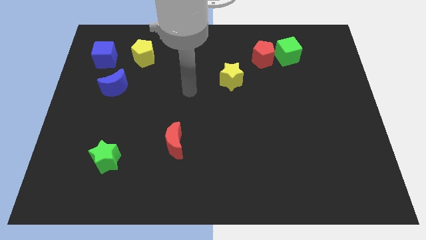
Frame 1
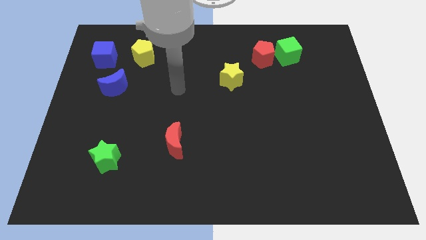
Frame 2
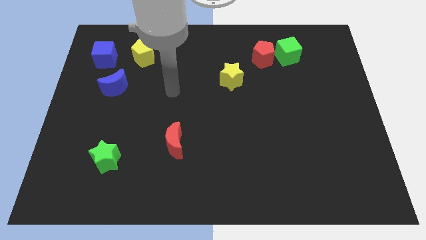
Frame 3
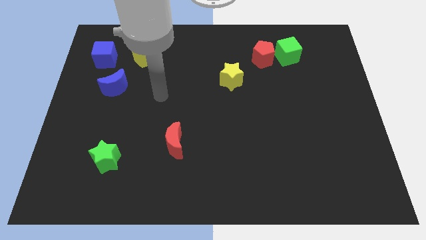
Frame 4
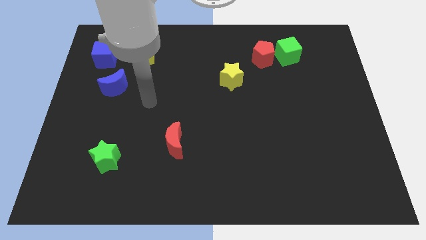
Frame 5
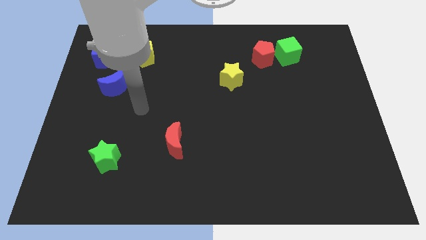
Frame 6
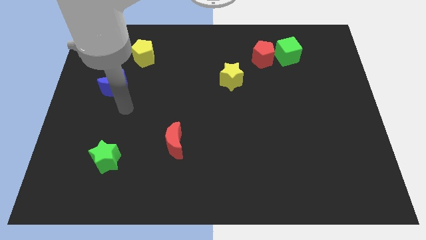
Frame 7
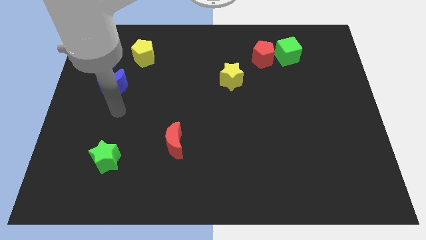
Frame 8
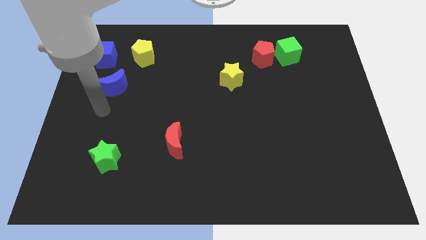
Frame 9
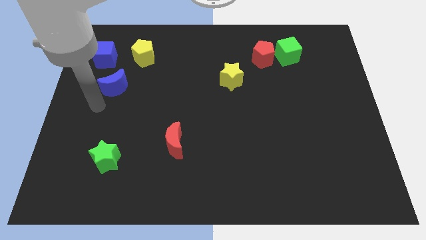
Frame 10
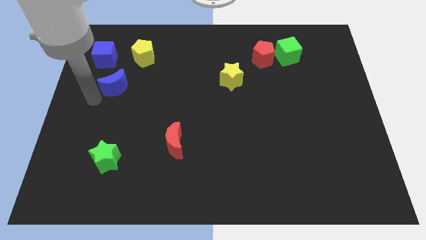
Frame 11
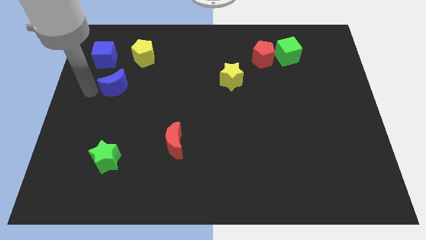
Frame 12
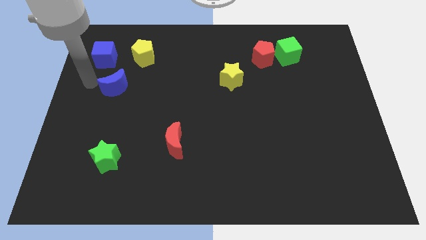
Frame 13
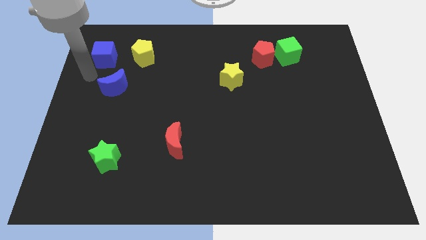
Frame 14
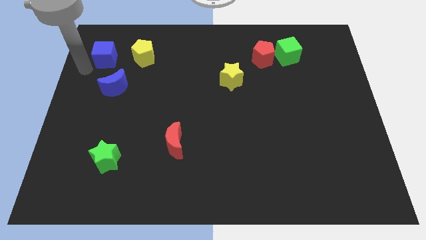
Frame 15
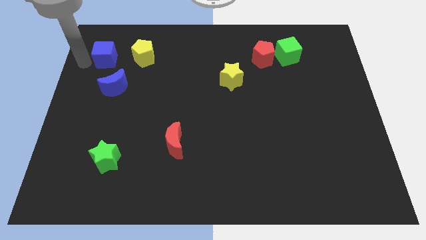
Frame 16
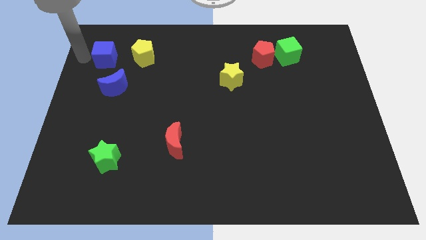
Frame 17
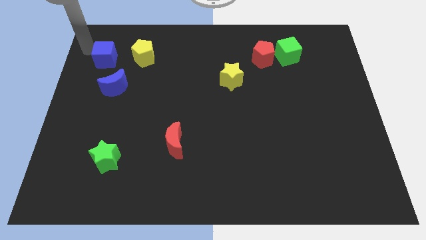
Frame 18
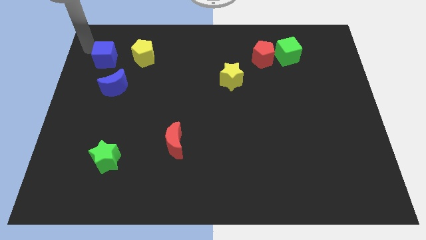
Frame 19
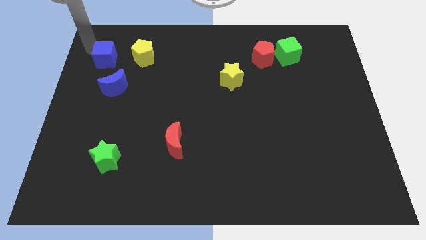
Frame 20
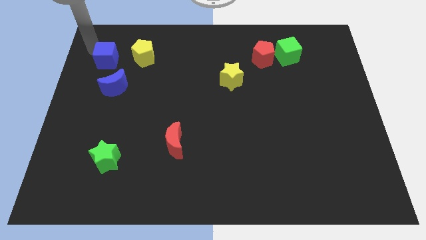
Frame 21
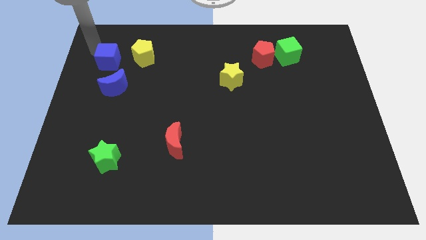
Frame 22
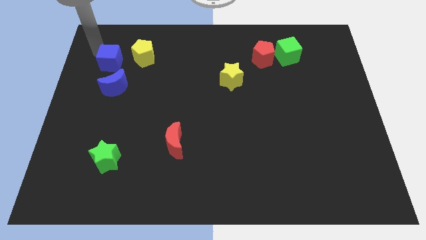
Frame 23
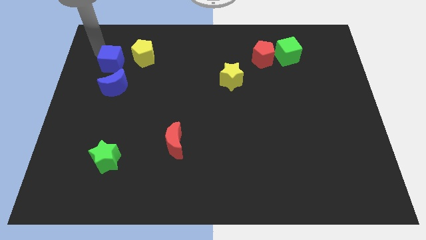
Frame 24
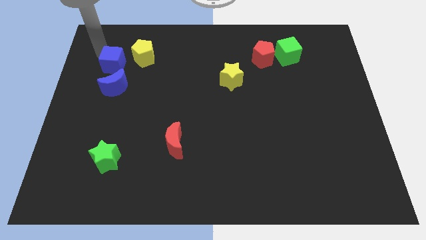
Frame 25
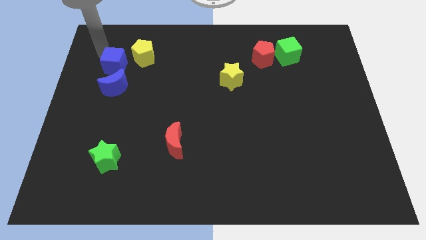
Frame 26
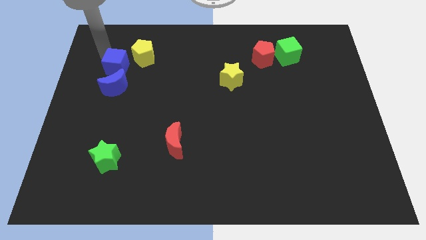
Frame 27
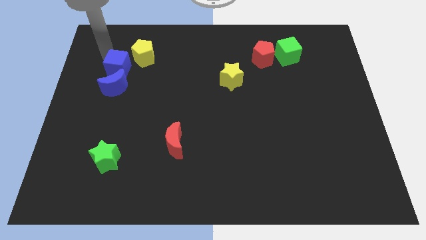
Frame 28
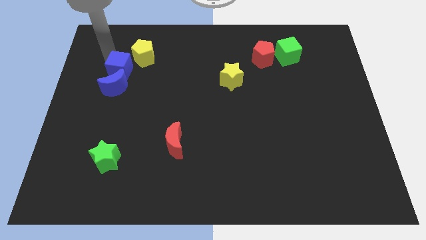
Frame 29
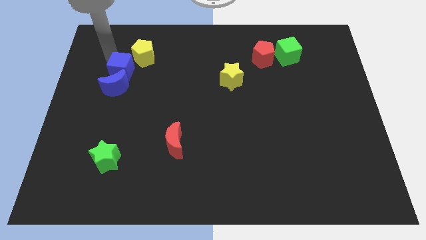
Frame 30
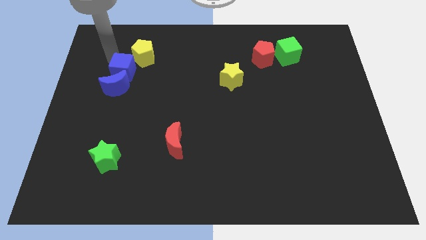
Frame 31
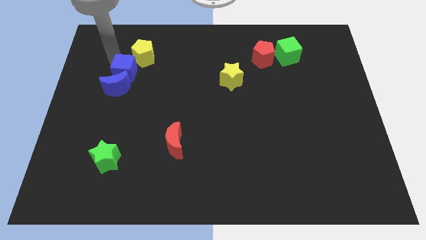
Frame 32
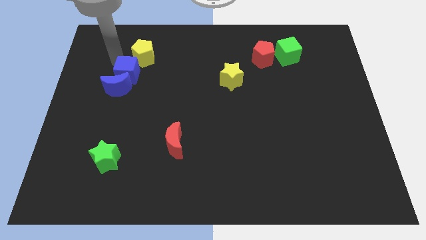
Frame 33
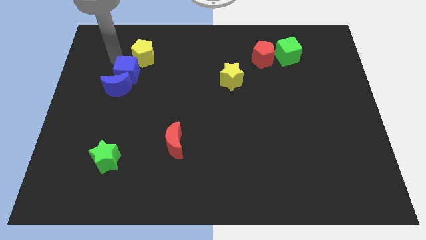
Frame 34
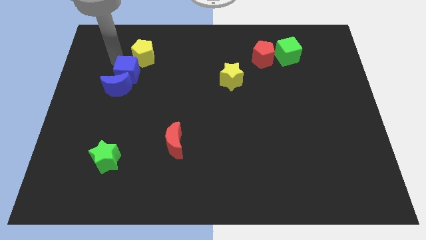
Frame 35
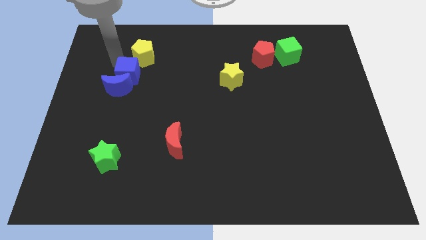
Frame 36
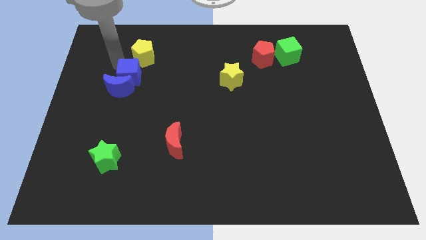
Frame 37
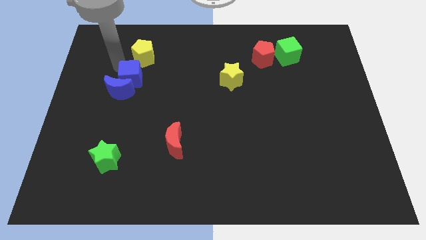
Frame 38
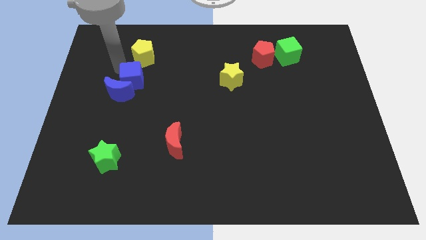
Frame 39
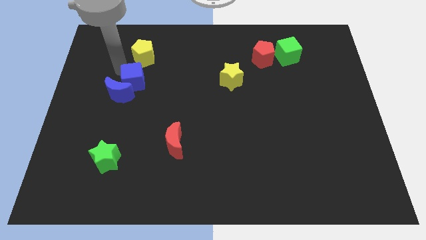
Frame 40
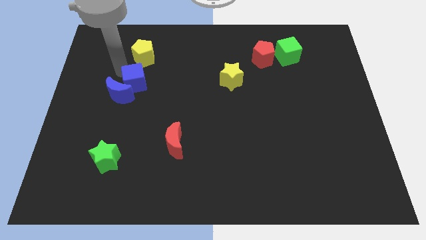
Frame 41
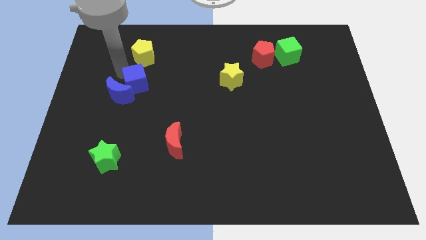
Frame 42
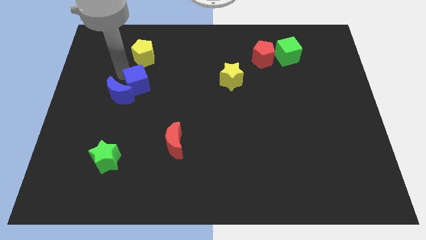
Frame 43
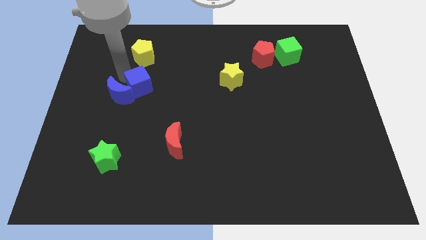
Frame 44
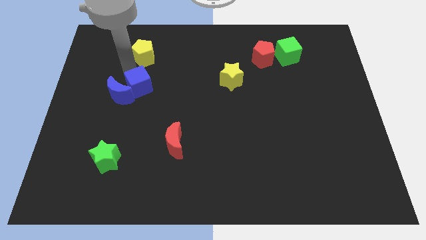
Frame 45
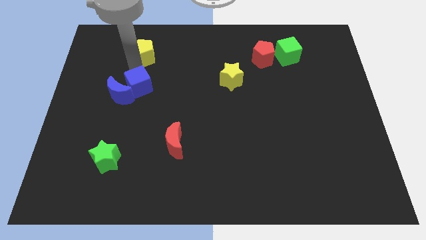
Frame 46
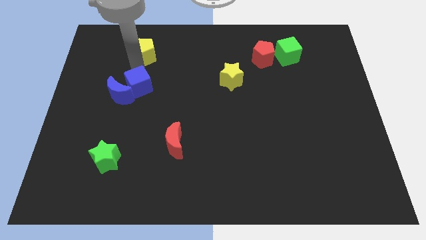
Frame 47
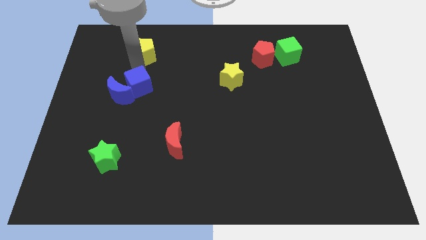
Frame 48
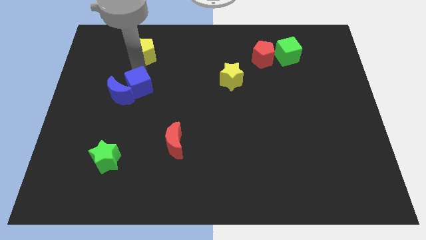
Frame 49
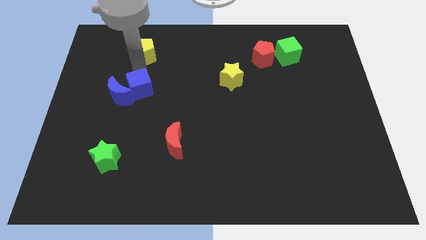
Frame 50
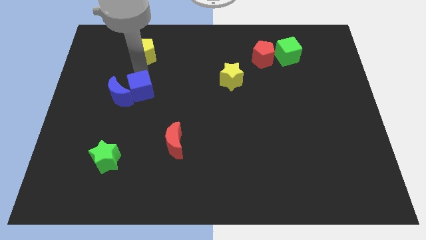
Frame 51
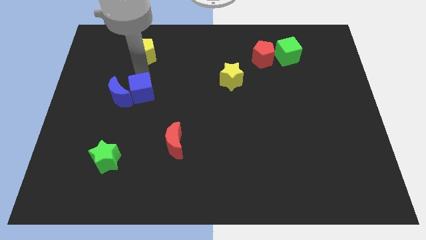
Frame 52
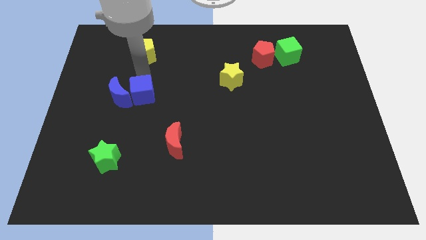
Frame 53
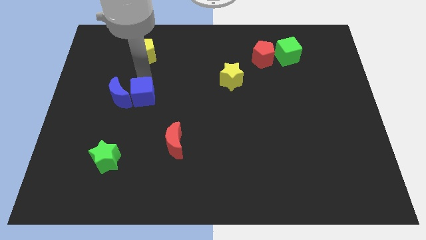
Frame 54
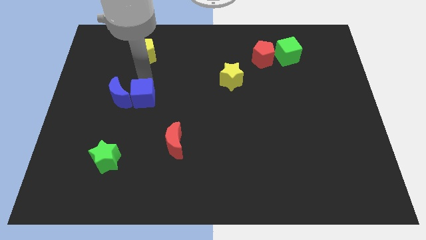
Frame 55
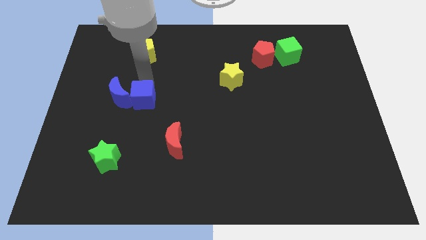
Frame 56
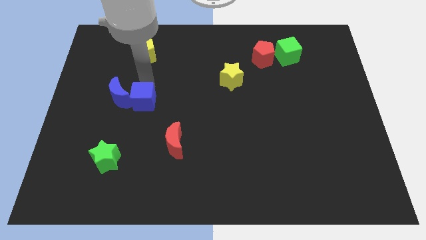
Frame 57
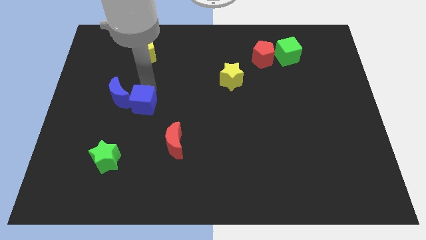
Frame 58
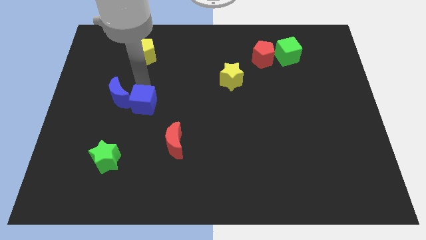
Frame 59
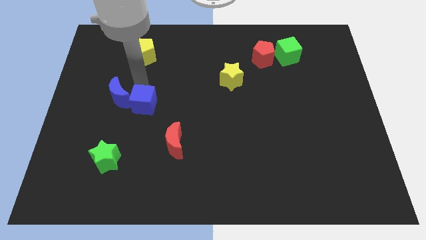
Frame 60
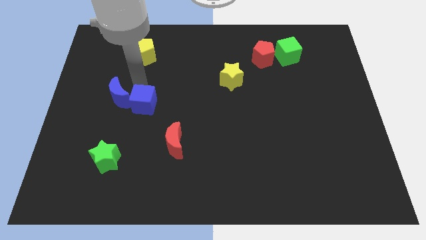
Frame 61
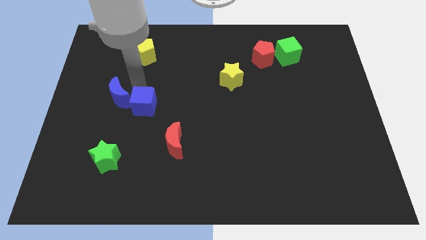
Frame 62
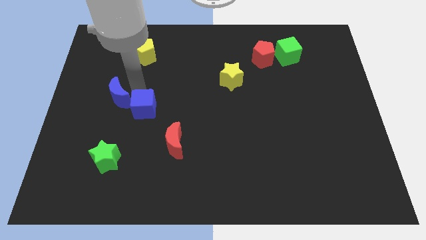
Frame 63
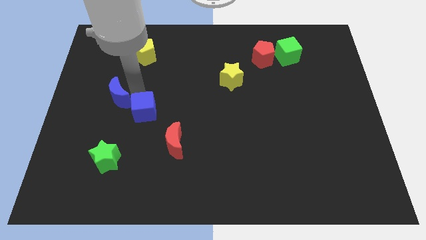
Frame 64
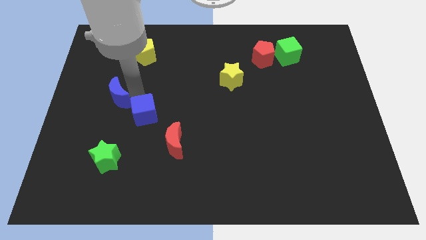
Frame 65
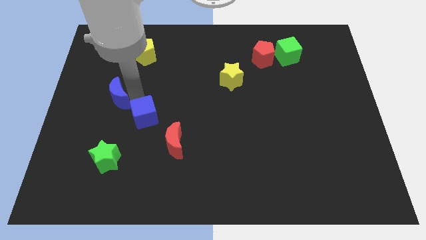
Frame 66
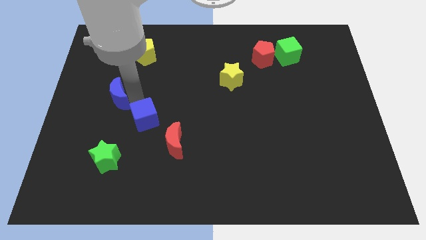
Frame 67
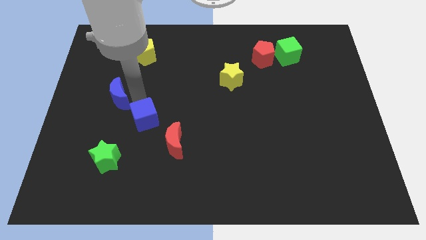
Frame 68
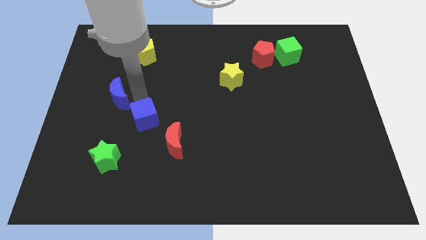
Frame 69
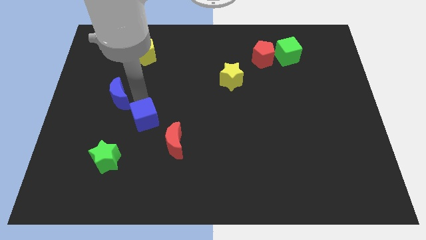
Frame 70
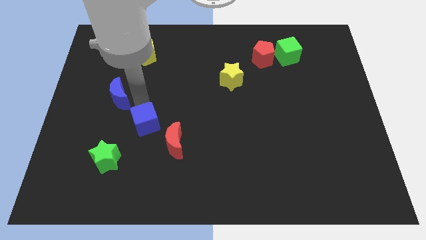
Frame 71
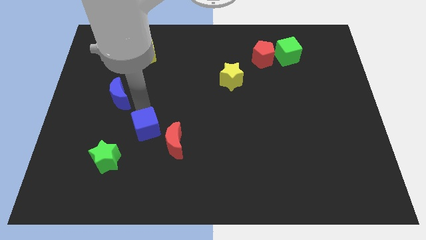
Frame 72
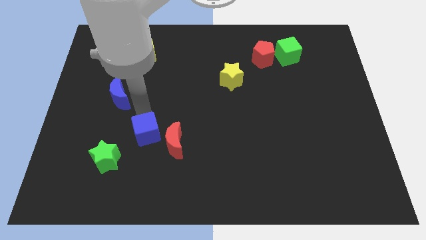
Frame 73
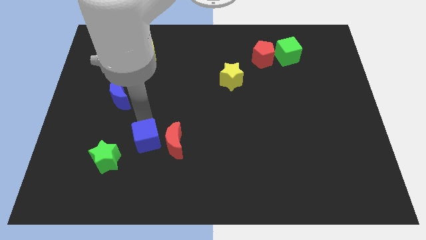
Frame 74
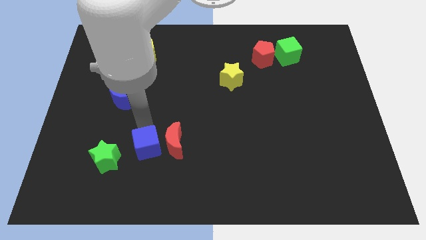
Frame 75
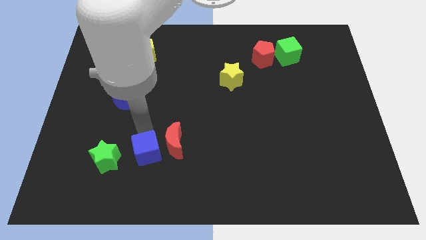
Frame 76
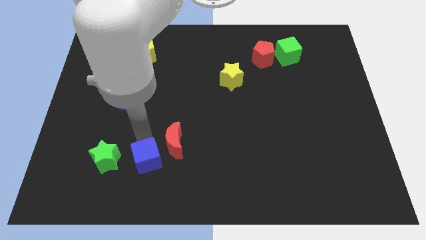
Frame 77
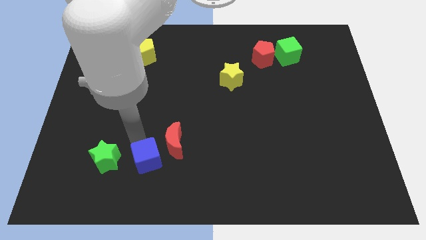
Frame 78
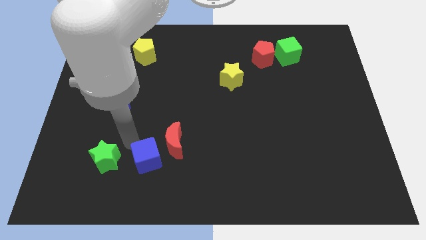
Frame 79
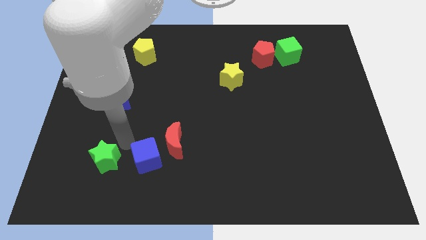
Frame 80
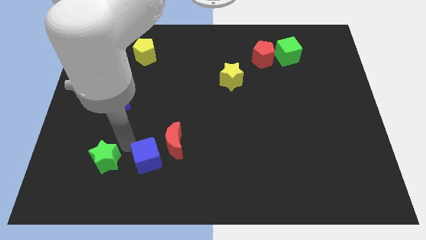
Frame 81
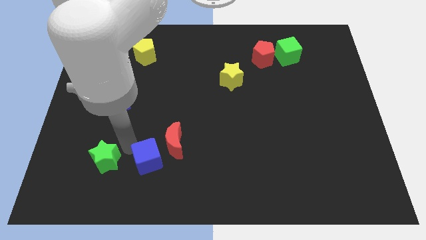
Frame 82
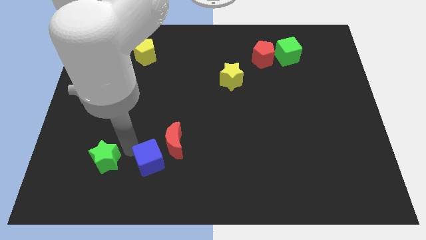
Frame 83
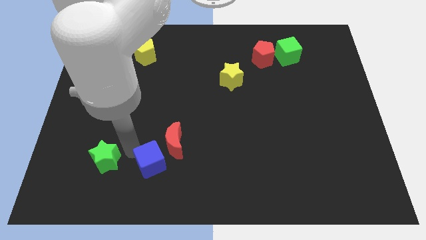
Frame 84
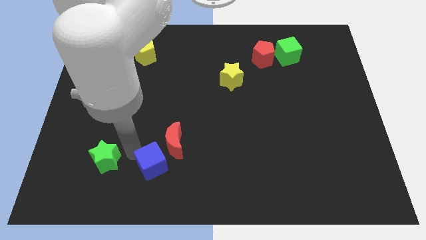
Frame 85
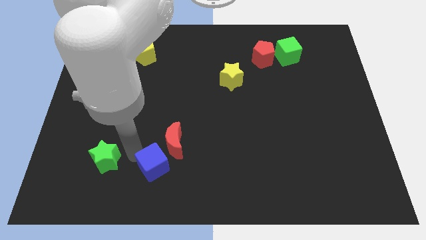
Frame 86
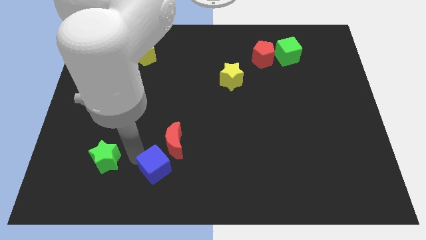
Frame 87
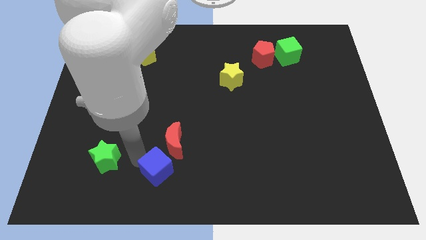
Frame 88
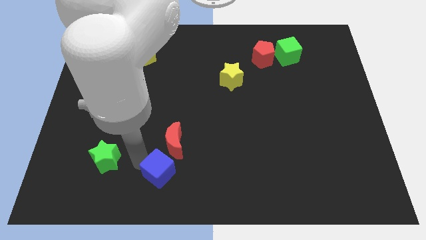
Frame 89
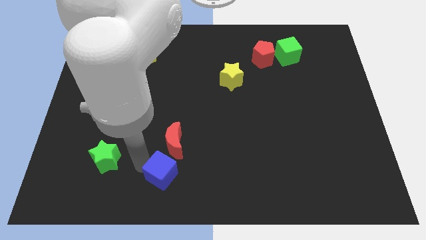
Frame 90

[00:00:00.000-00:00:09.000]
move the blue cube to the bottom side
